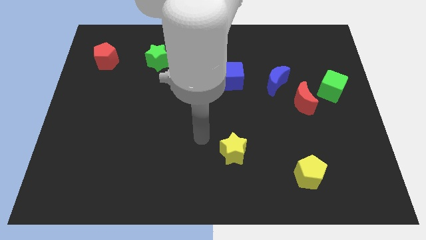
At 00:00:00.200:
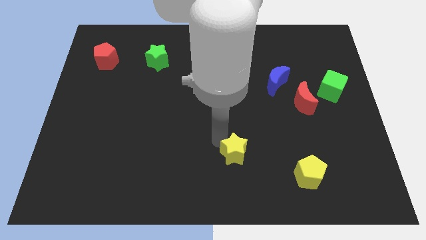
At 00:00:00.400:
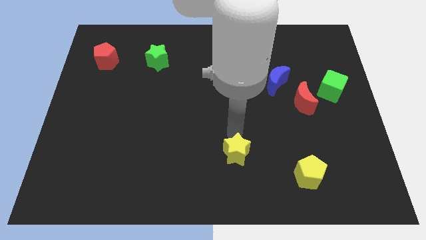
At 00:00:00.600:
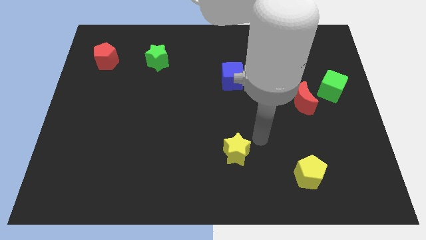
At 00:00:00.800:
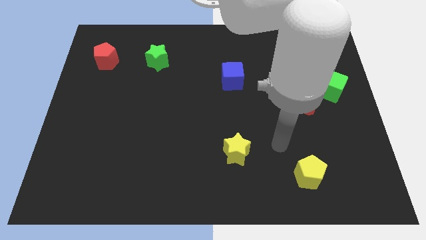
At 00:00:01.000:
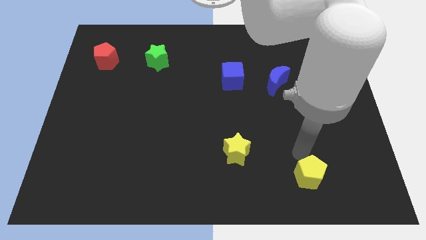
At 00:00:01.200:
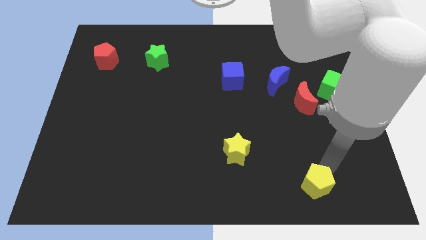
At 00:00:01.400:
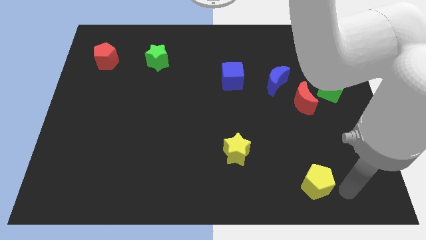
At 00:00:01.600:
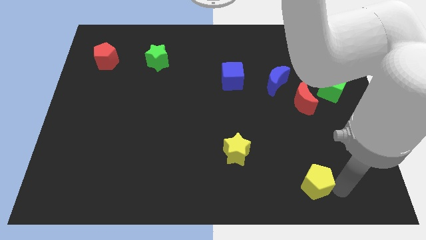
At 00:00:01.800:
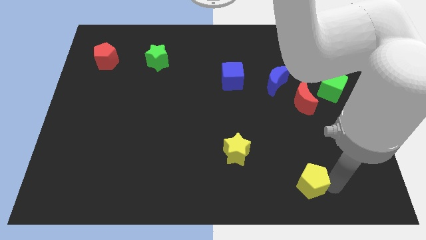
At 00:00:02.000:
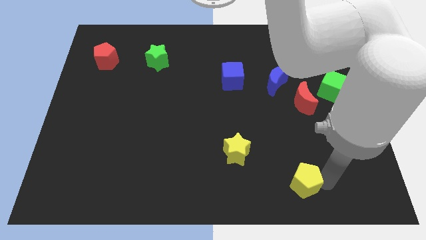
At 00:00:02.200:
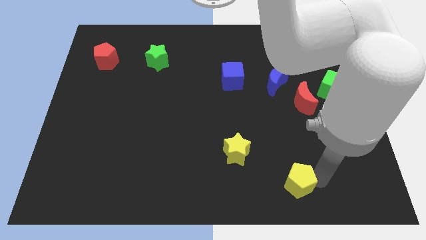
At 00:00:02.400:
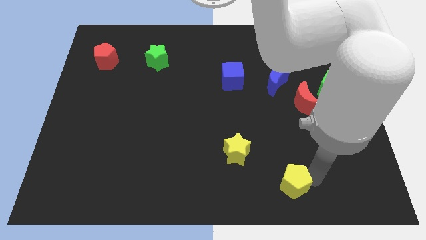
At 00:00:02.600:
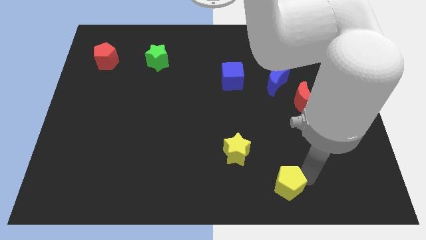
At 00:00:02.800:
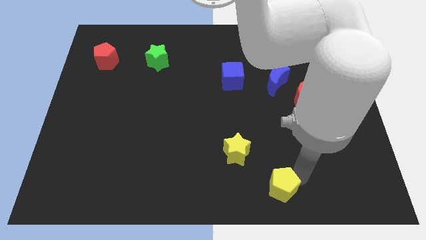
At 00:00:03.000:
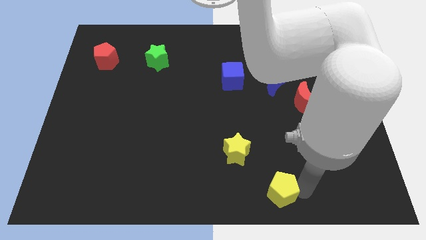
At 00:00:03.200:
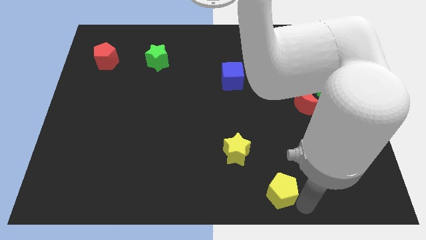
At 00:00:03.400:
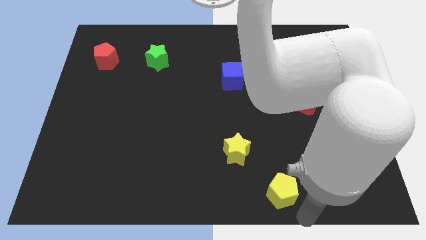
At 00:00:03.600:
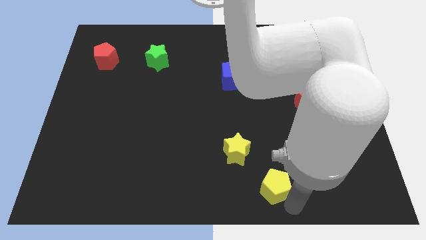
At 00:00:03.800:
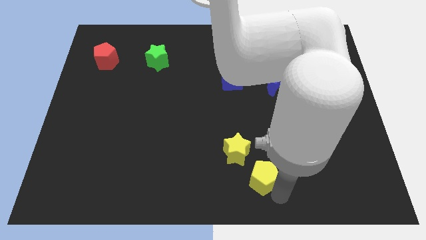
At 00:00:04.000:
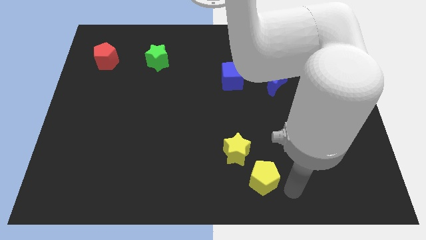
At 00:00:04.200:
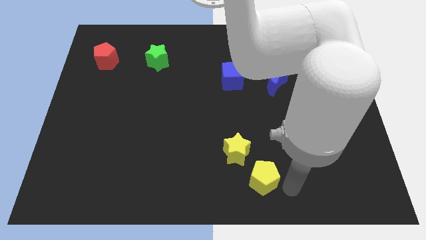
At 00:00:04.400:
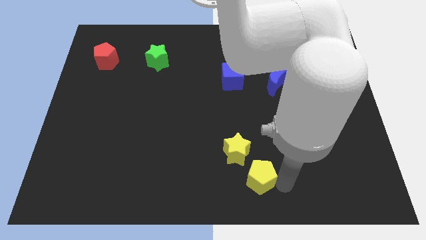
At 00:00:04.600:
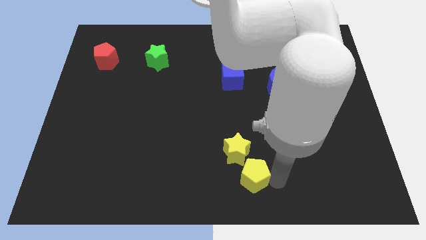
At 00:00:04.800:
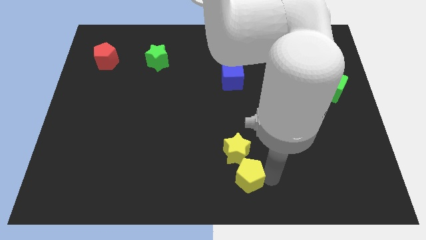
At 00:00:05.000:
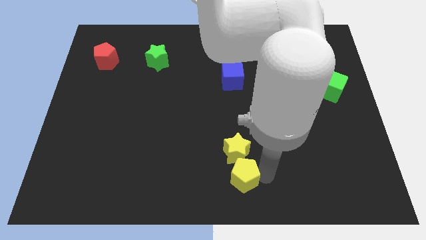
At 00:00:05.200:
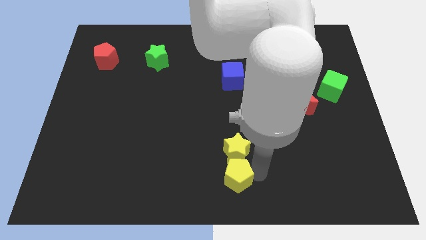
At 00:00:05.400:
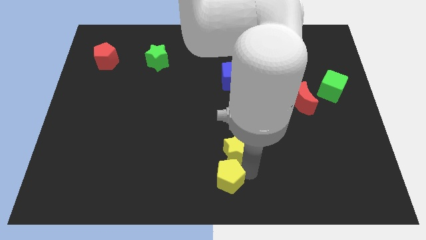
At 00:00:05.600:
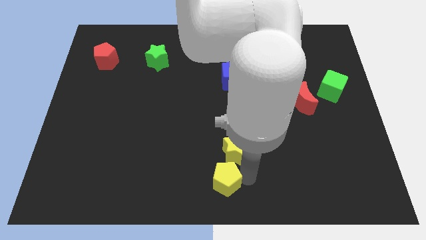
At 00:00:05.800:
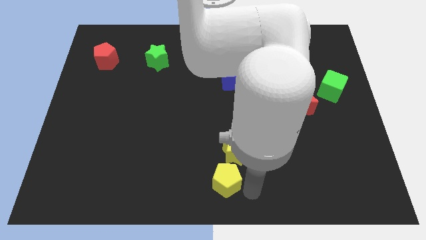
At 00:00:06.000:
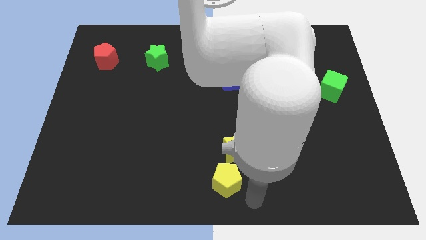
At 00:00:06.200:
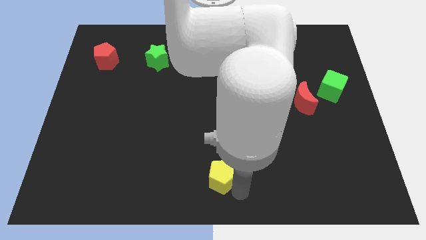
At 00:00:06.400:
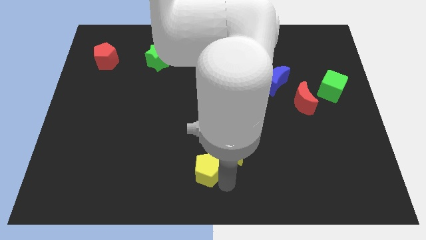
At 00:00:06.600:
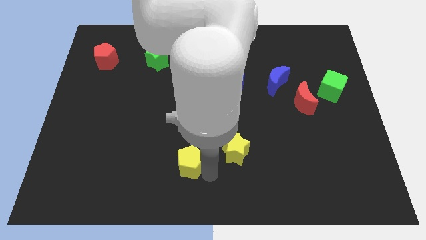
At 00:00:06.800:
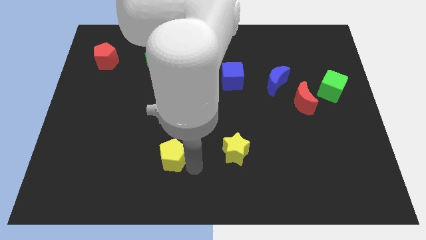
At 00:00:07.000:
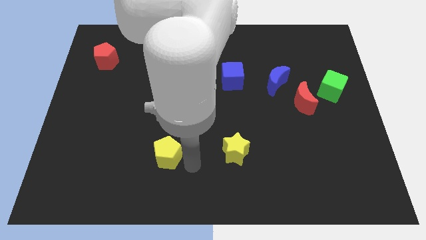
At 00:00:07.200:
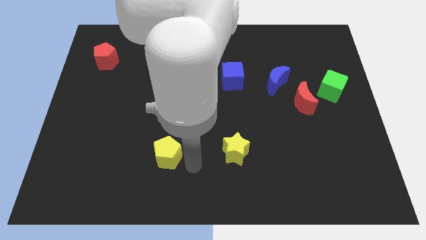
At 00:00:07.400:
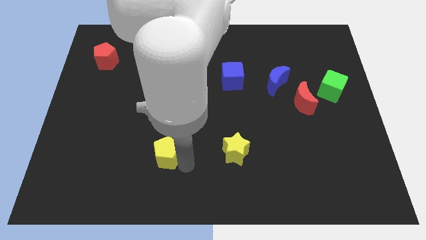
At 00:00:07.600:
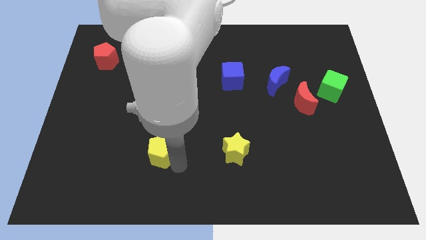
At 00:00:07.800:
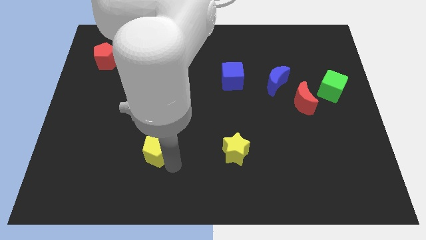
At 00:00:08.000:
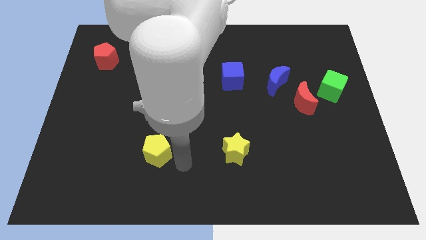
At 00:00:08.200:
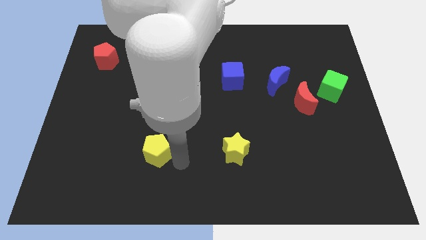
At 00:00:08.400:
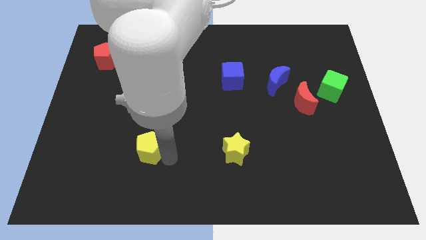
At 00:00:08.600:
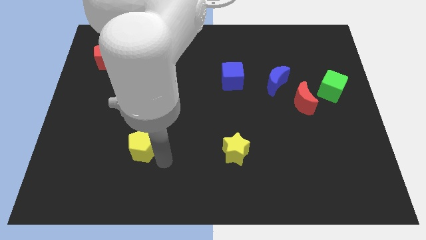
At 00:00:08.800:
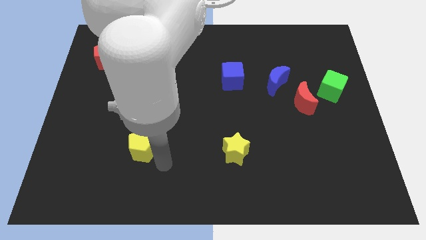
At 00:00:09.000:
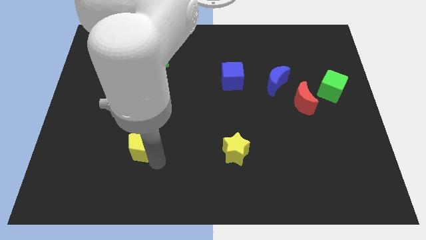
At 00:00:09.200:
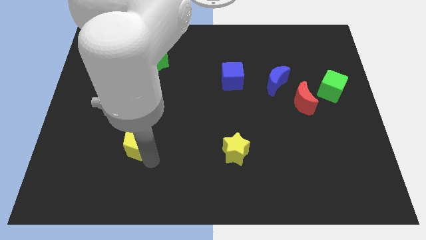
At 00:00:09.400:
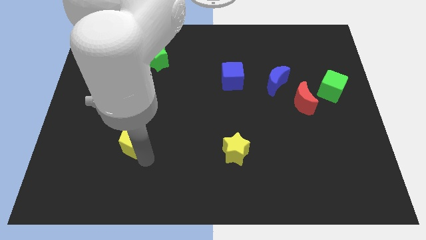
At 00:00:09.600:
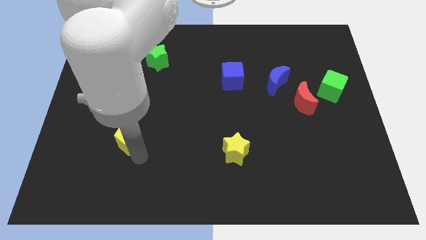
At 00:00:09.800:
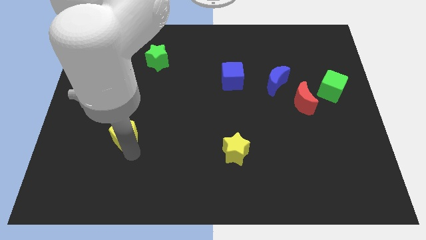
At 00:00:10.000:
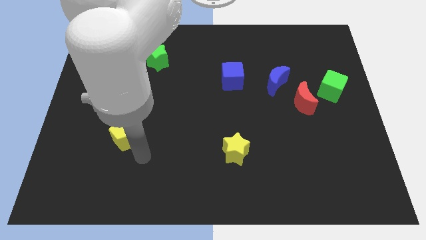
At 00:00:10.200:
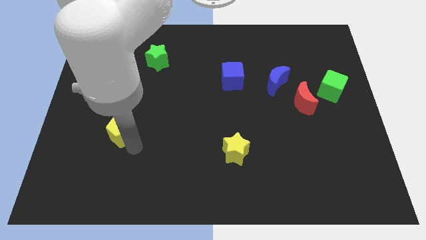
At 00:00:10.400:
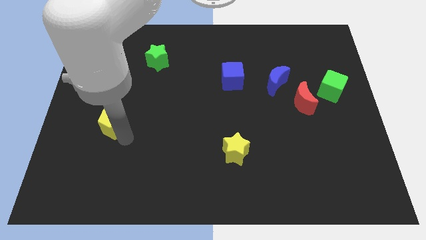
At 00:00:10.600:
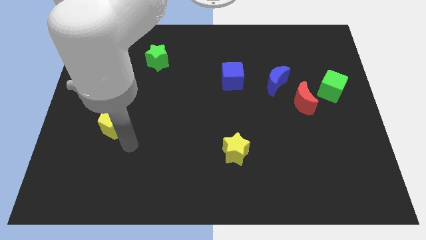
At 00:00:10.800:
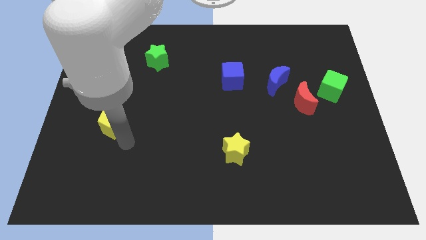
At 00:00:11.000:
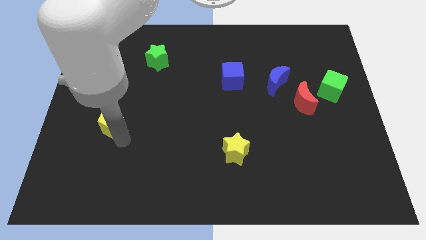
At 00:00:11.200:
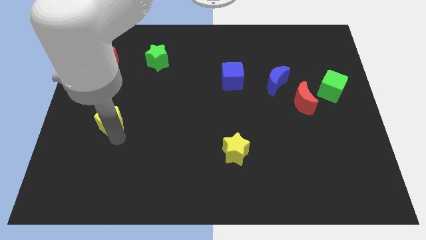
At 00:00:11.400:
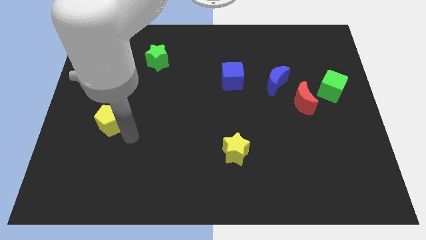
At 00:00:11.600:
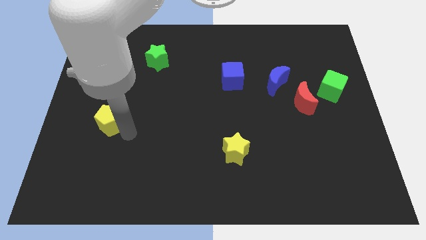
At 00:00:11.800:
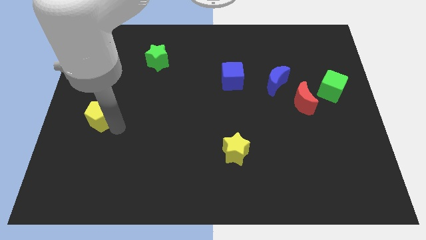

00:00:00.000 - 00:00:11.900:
push the yellow pentagon to the left side of the board

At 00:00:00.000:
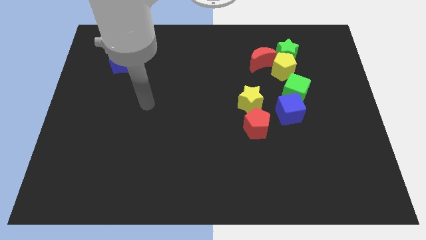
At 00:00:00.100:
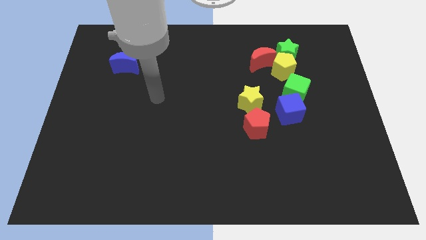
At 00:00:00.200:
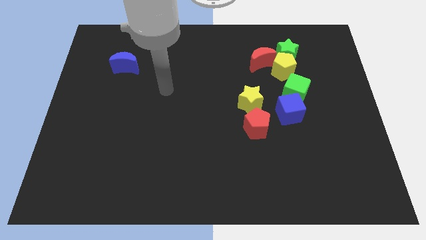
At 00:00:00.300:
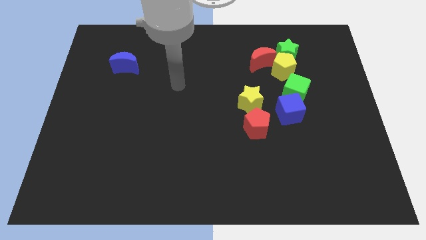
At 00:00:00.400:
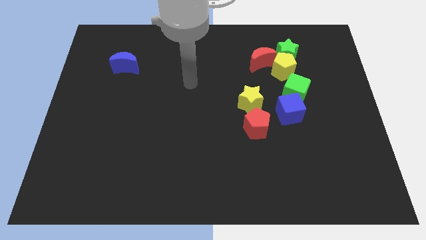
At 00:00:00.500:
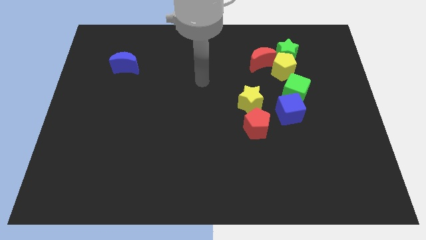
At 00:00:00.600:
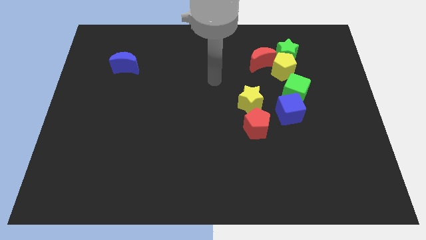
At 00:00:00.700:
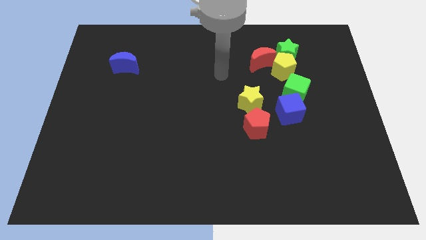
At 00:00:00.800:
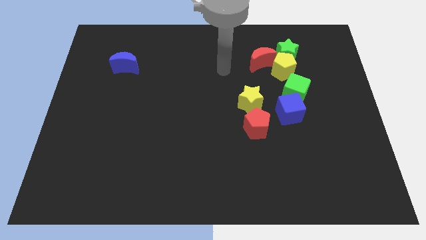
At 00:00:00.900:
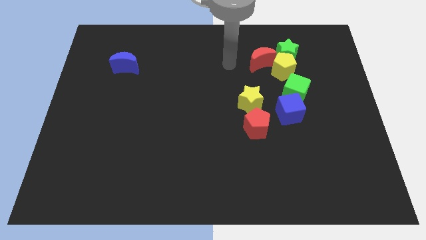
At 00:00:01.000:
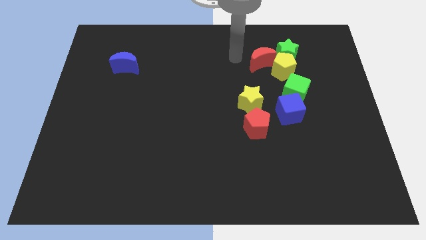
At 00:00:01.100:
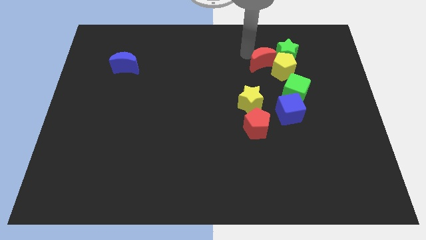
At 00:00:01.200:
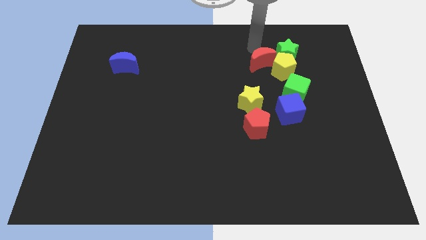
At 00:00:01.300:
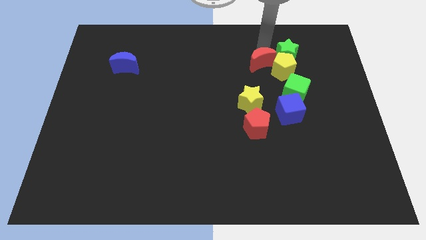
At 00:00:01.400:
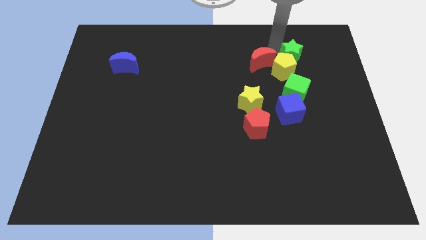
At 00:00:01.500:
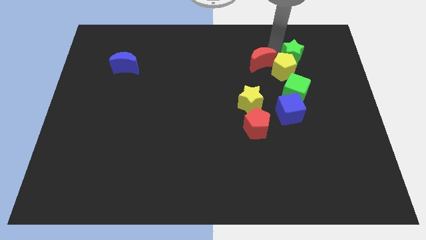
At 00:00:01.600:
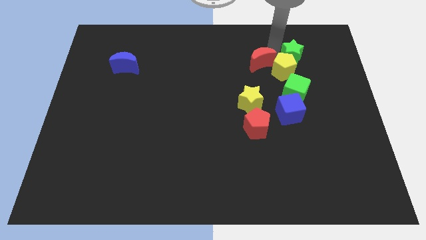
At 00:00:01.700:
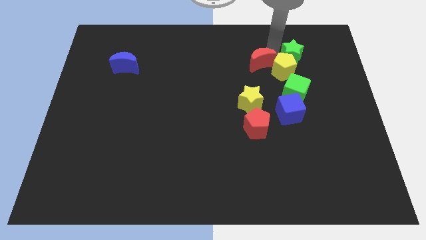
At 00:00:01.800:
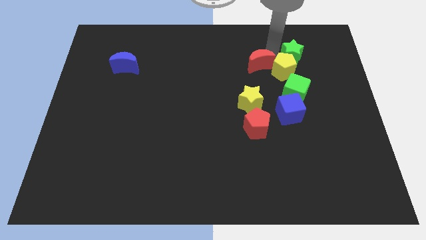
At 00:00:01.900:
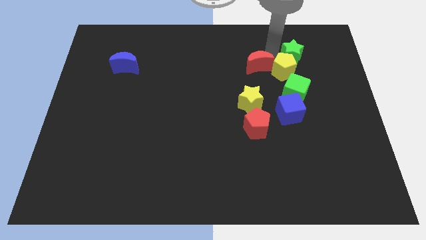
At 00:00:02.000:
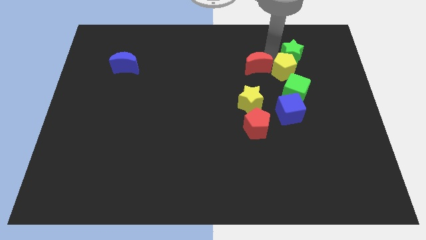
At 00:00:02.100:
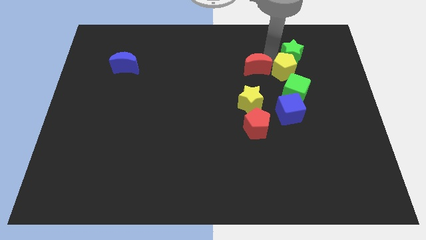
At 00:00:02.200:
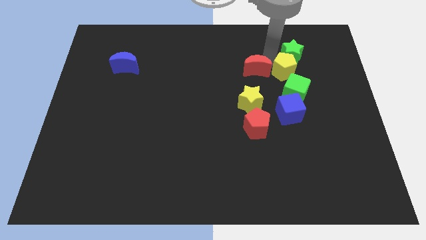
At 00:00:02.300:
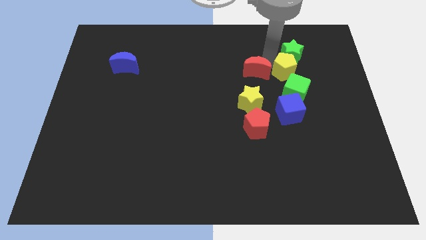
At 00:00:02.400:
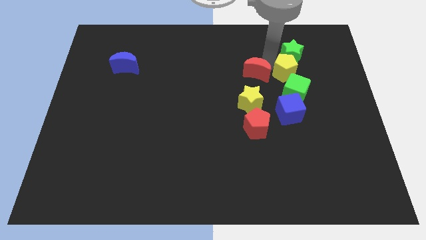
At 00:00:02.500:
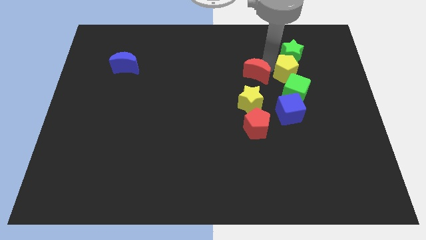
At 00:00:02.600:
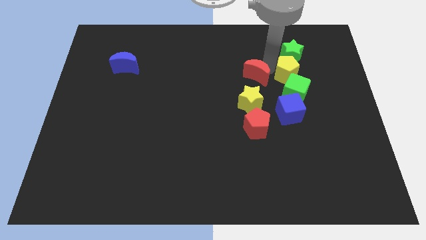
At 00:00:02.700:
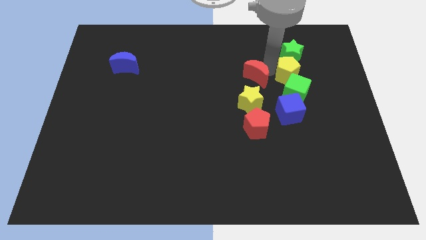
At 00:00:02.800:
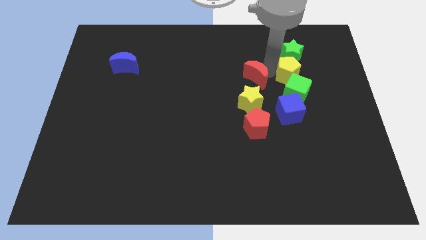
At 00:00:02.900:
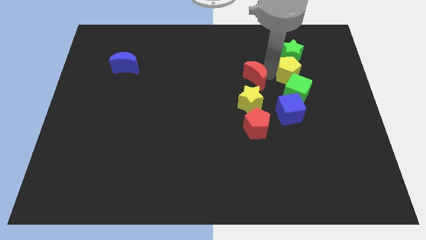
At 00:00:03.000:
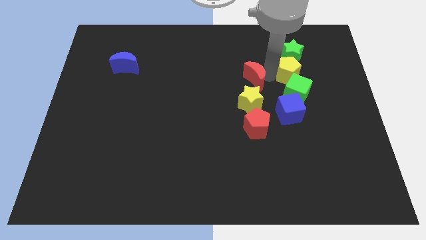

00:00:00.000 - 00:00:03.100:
slide the red moon to the middle
